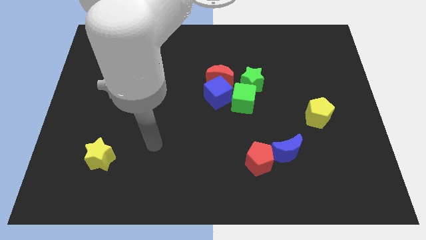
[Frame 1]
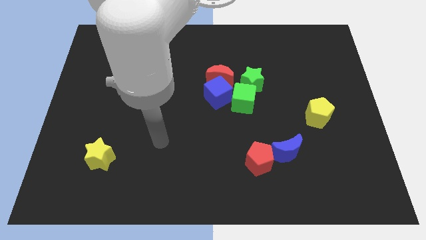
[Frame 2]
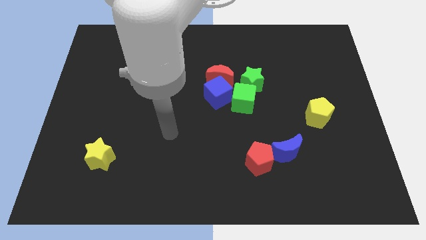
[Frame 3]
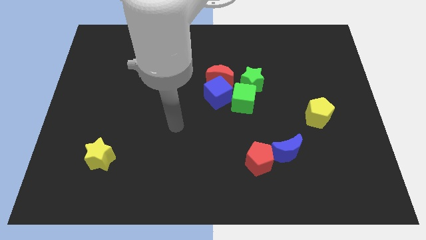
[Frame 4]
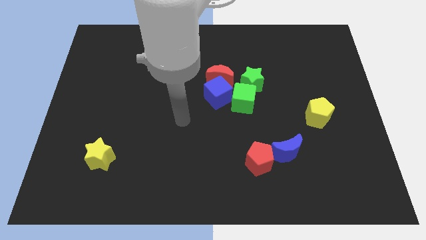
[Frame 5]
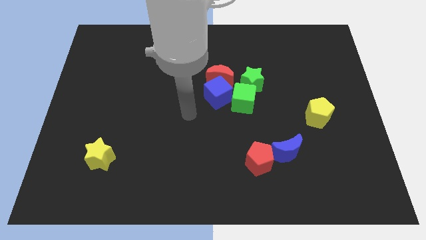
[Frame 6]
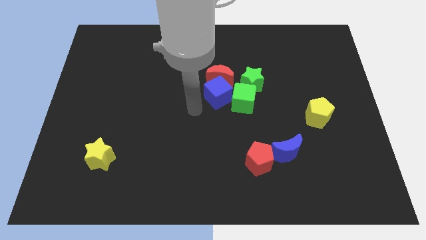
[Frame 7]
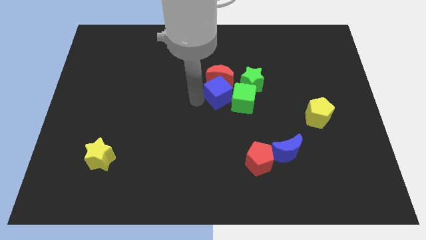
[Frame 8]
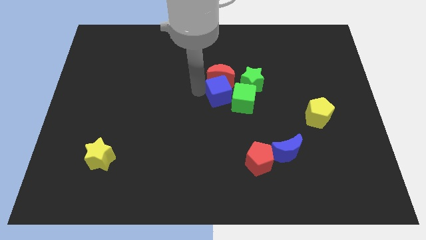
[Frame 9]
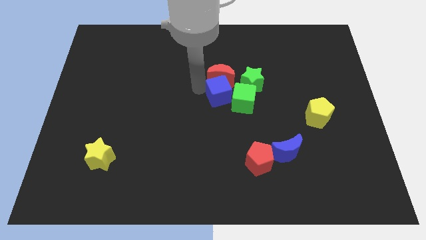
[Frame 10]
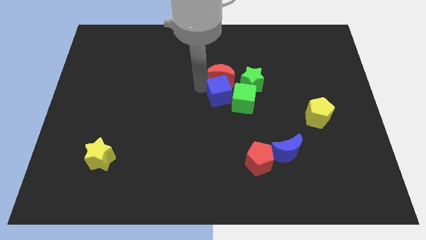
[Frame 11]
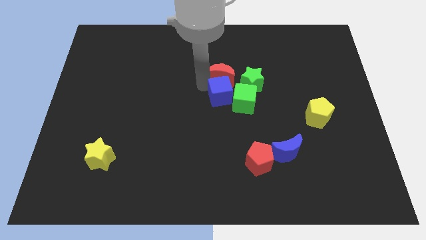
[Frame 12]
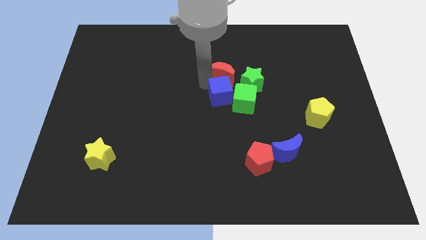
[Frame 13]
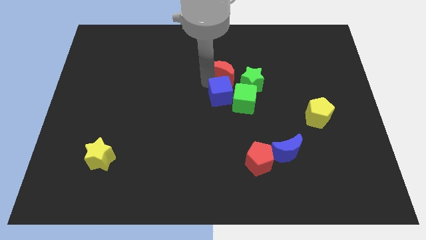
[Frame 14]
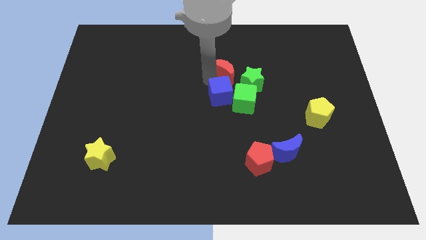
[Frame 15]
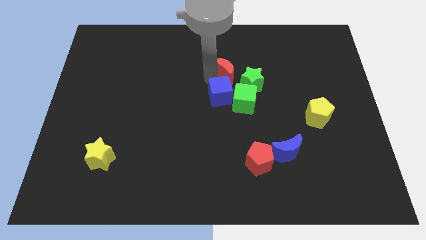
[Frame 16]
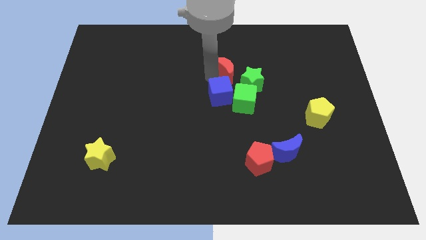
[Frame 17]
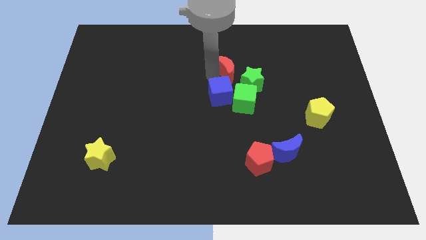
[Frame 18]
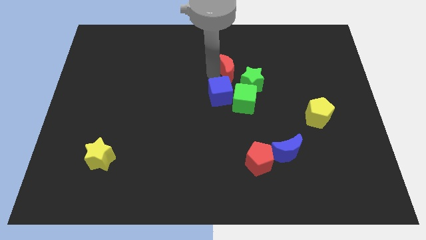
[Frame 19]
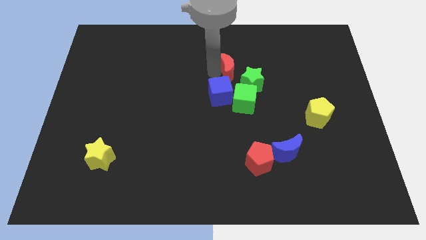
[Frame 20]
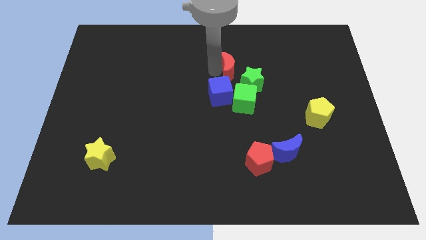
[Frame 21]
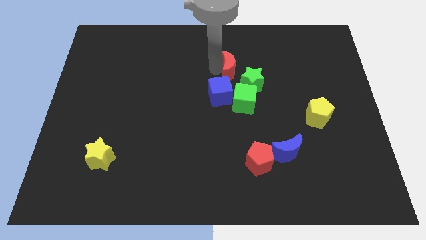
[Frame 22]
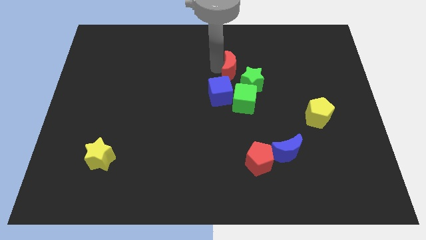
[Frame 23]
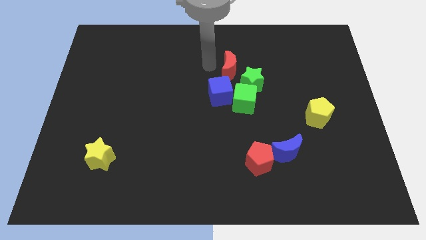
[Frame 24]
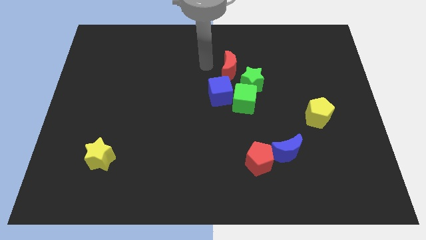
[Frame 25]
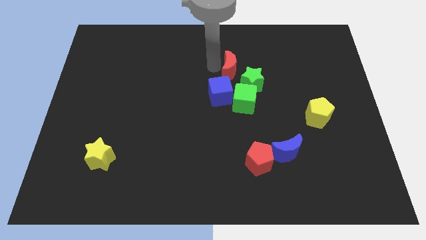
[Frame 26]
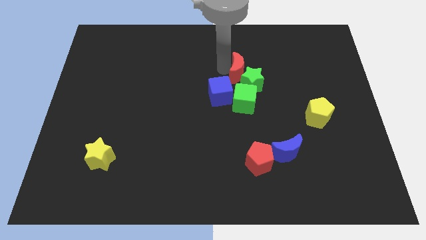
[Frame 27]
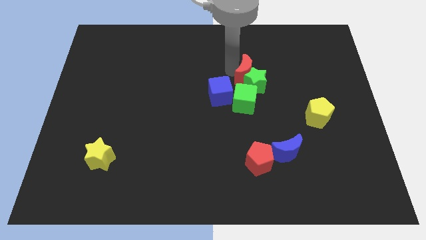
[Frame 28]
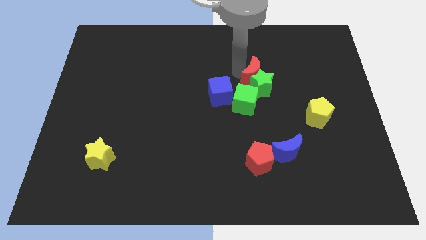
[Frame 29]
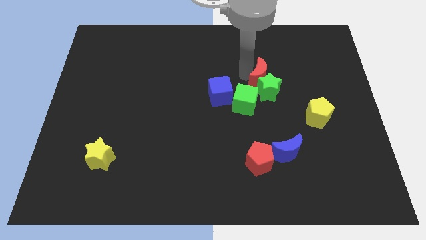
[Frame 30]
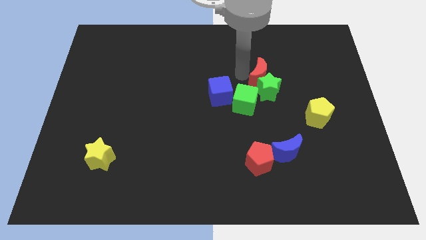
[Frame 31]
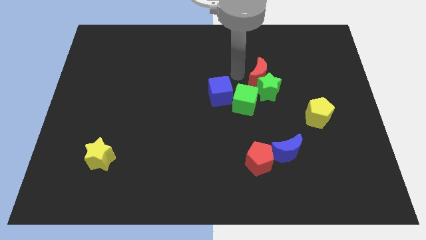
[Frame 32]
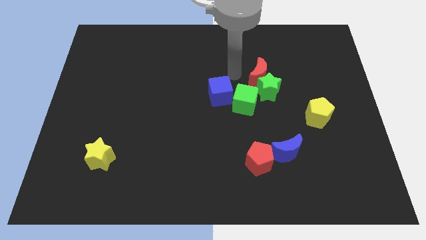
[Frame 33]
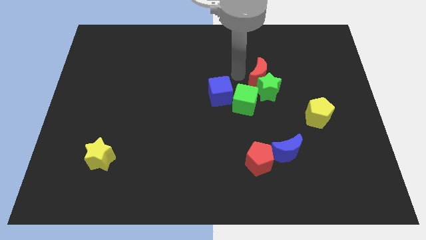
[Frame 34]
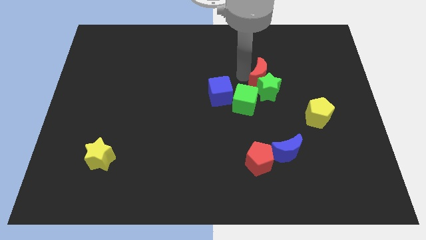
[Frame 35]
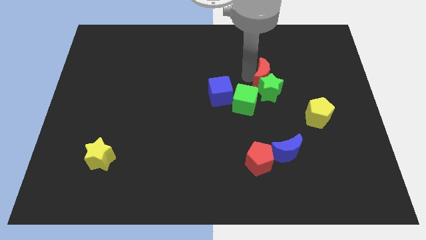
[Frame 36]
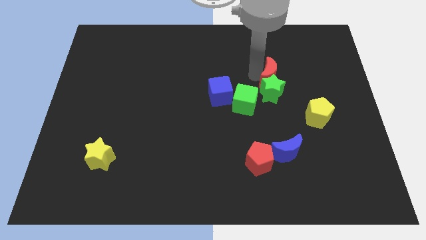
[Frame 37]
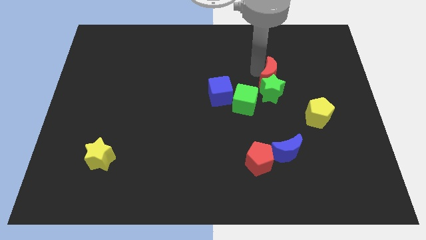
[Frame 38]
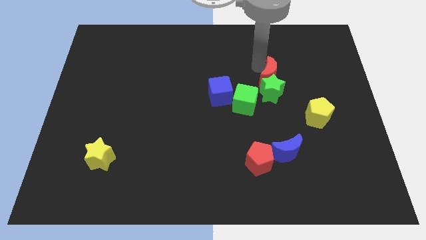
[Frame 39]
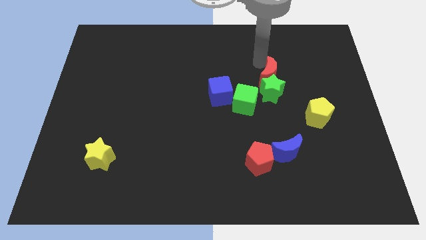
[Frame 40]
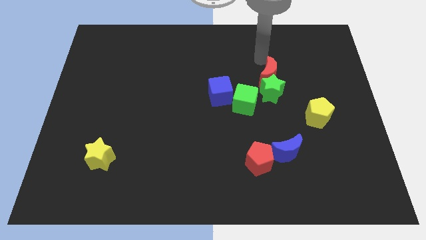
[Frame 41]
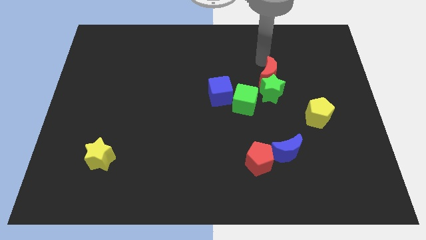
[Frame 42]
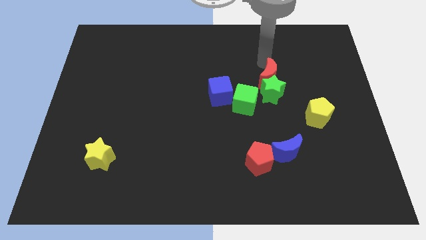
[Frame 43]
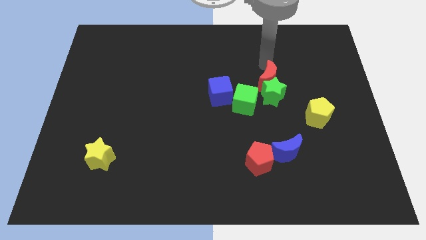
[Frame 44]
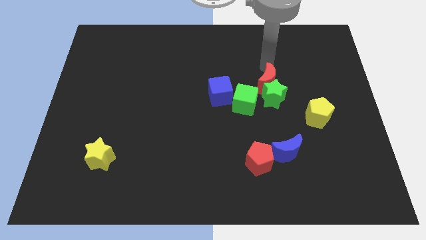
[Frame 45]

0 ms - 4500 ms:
move the red moon down and right diagonally slightly

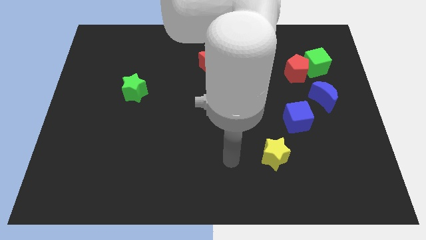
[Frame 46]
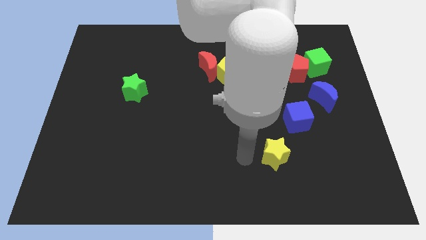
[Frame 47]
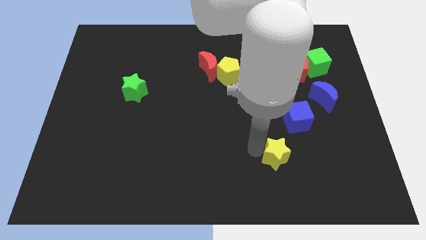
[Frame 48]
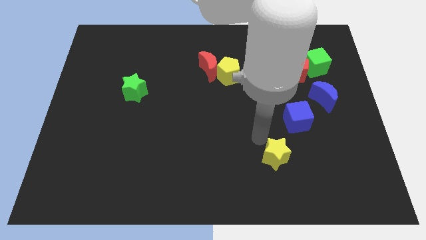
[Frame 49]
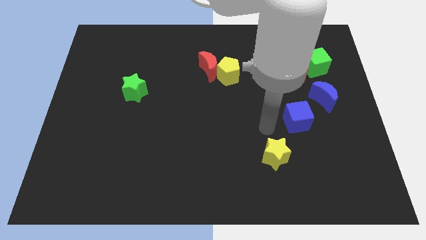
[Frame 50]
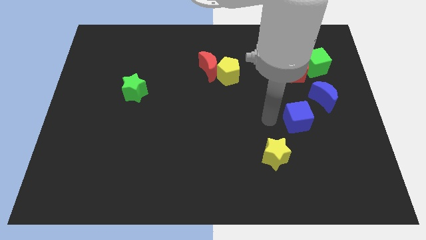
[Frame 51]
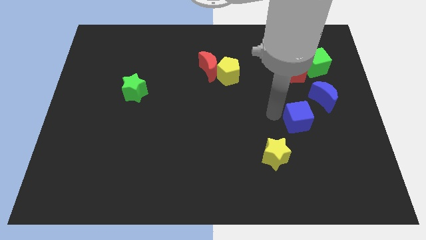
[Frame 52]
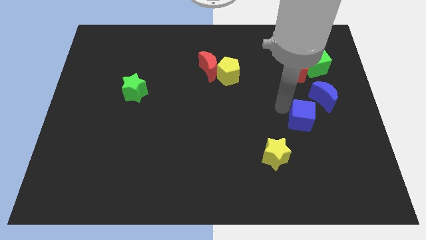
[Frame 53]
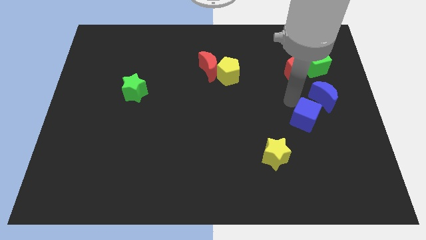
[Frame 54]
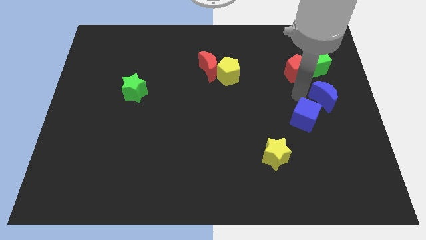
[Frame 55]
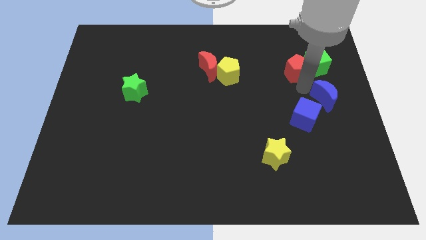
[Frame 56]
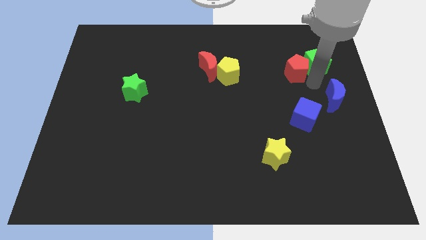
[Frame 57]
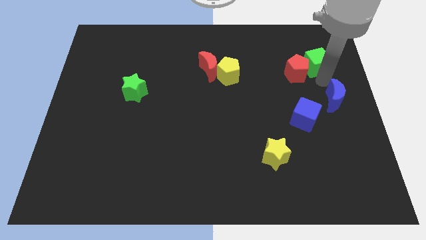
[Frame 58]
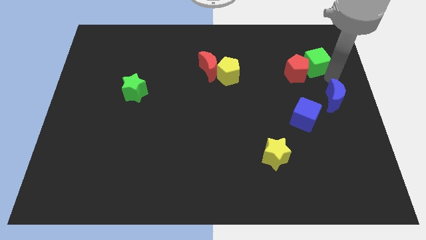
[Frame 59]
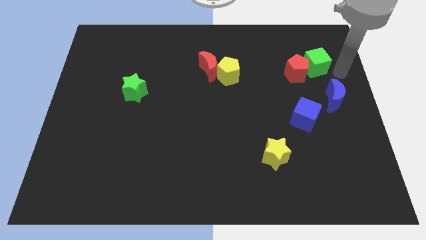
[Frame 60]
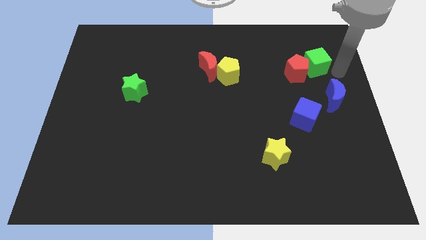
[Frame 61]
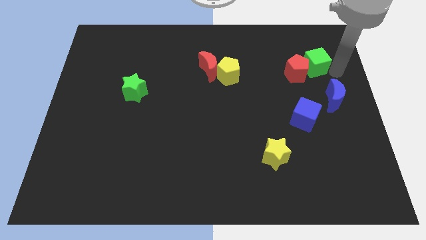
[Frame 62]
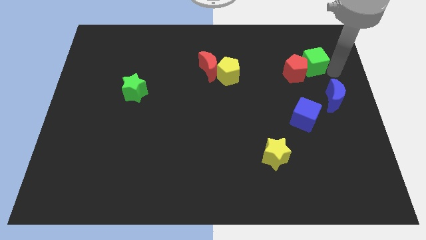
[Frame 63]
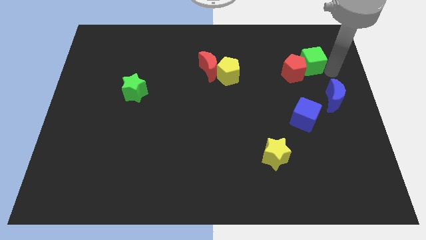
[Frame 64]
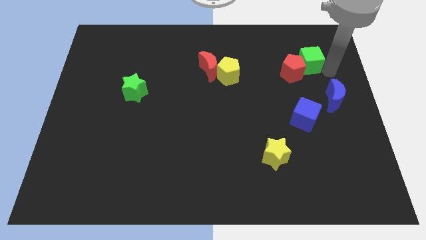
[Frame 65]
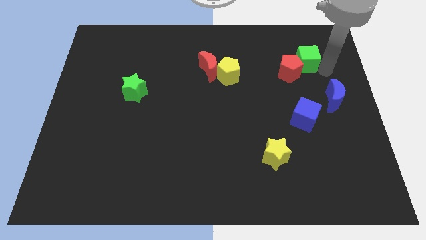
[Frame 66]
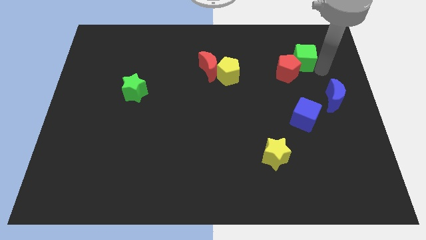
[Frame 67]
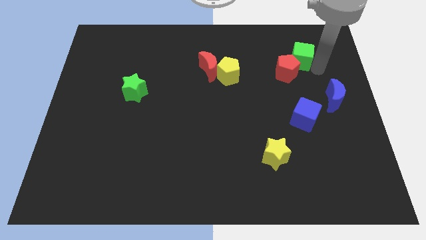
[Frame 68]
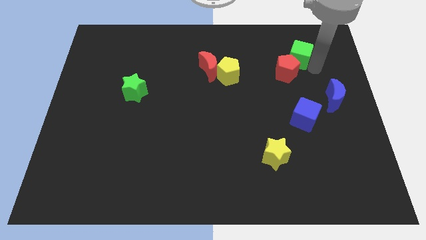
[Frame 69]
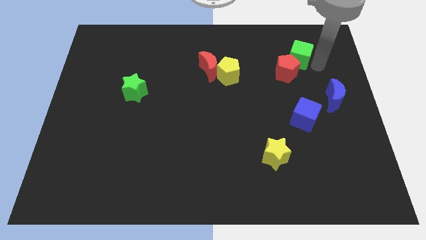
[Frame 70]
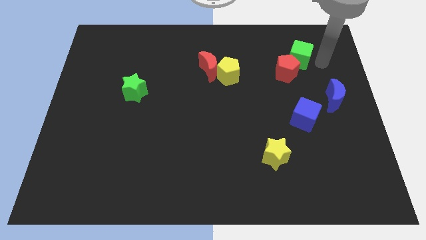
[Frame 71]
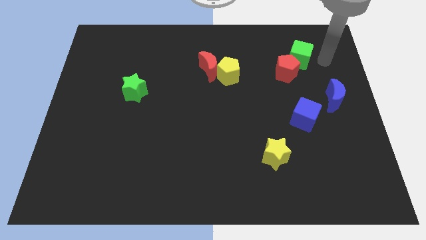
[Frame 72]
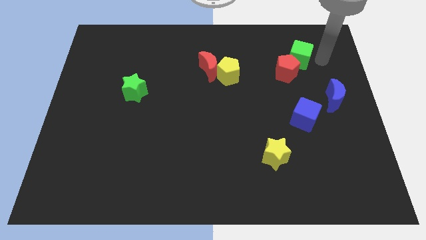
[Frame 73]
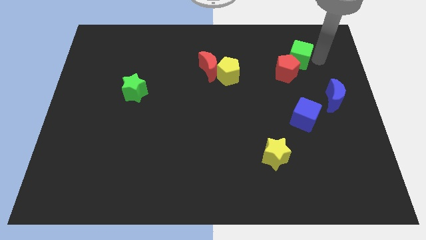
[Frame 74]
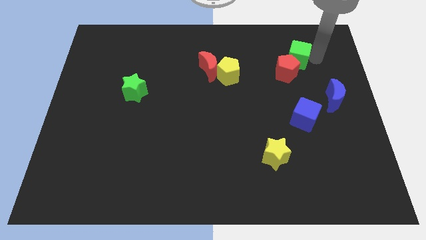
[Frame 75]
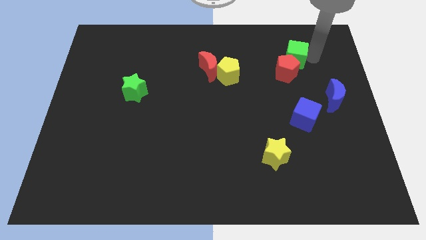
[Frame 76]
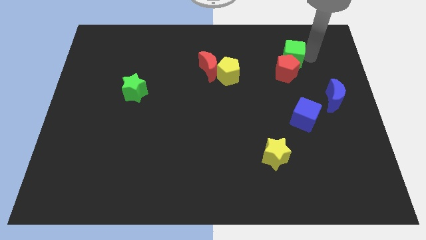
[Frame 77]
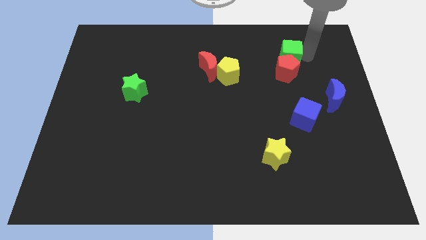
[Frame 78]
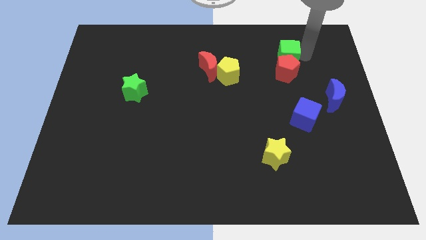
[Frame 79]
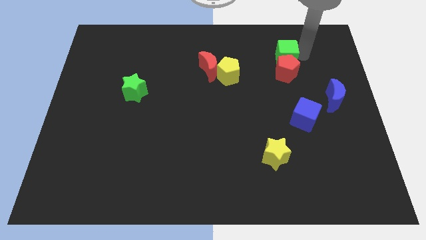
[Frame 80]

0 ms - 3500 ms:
slightly move the green cube to the left
